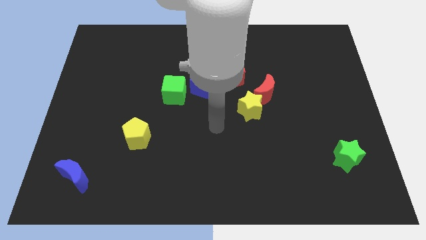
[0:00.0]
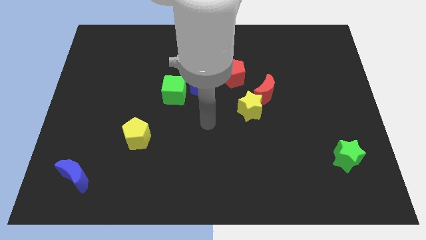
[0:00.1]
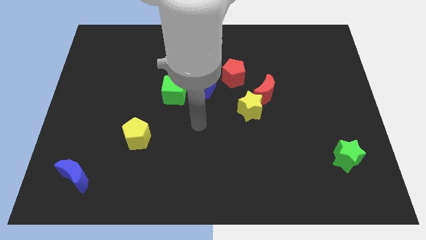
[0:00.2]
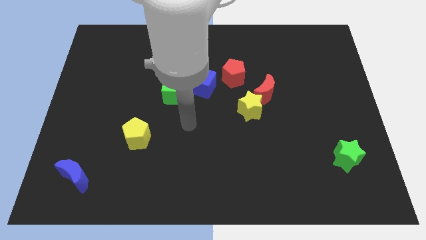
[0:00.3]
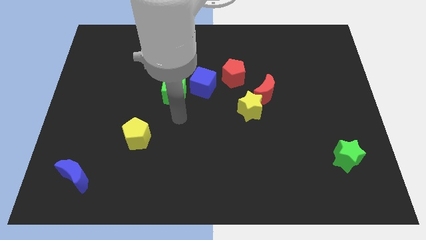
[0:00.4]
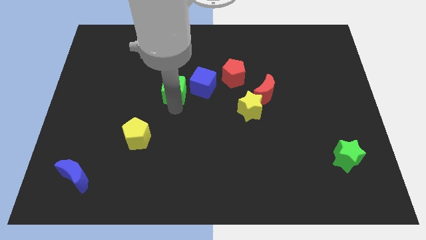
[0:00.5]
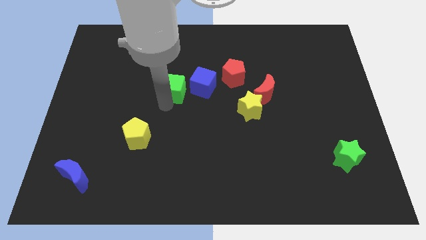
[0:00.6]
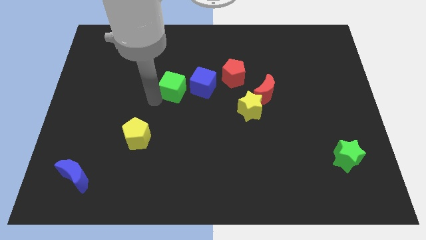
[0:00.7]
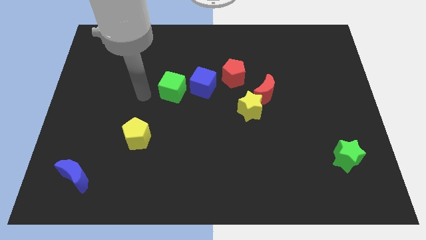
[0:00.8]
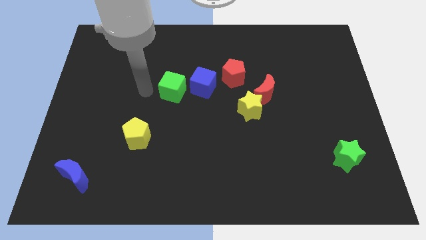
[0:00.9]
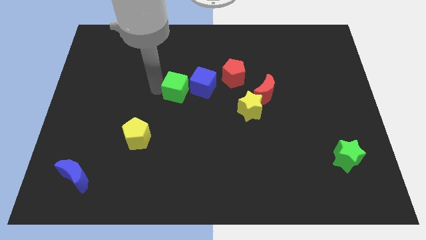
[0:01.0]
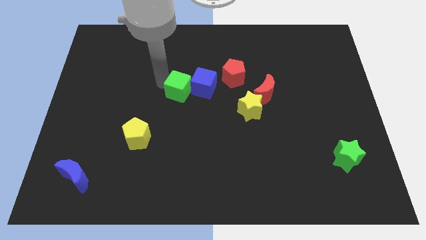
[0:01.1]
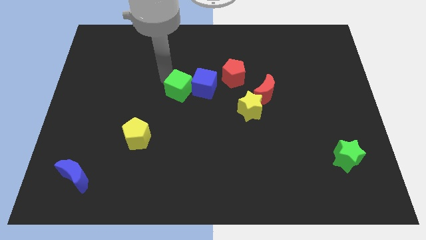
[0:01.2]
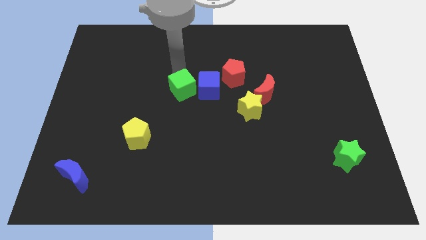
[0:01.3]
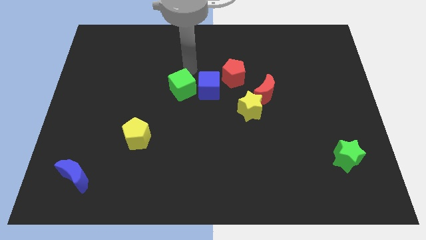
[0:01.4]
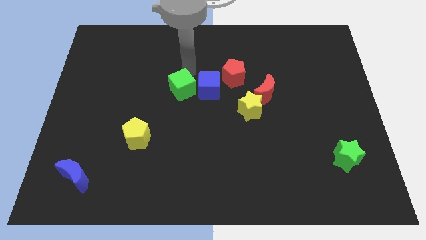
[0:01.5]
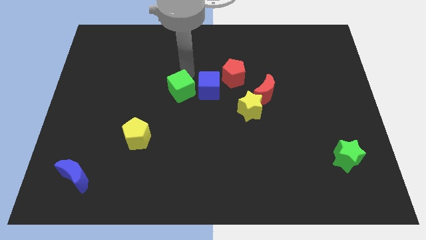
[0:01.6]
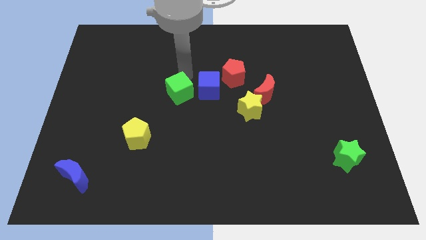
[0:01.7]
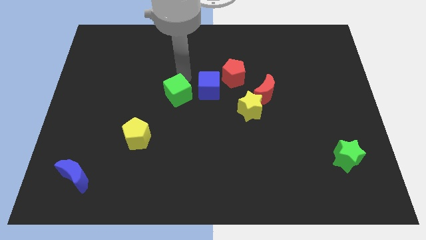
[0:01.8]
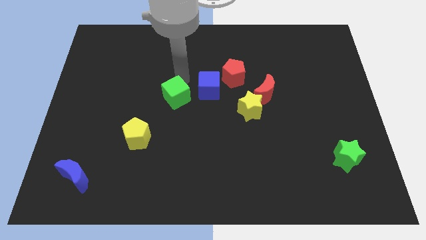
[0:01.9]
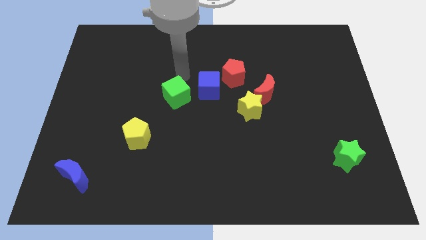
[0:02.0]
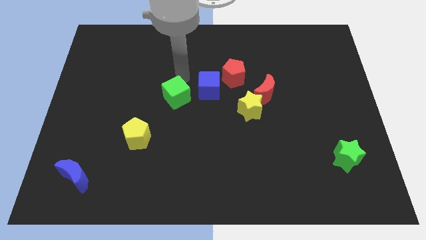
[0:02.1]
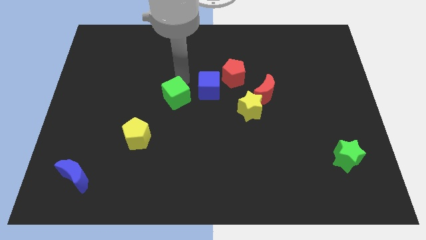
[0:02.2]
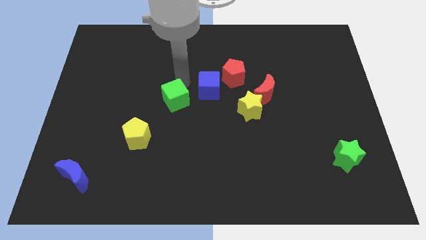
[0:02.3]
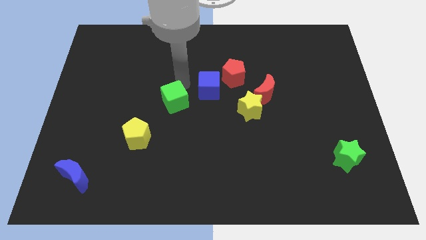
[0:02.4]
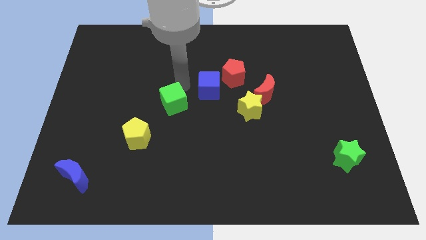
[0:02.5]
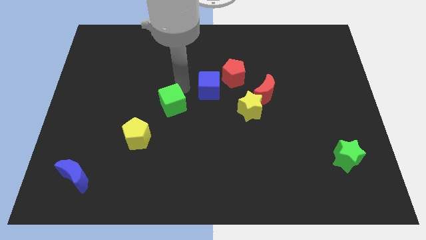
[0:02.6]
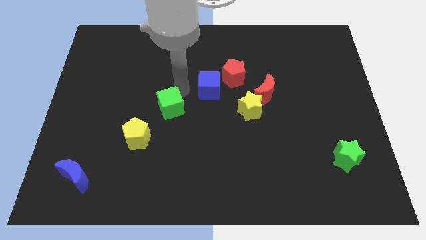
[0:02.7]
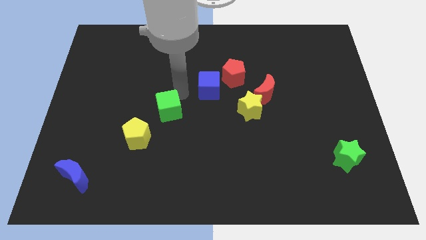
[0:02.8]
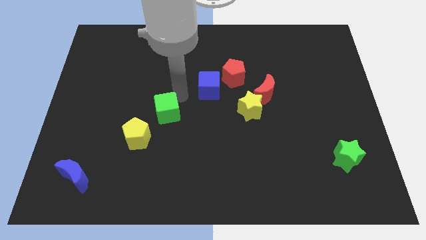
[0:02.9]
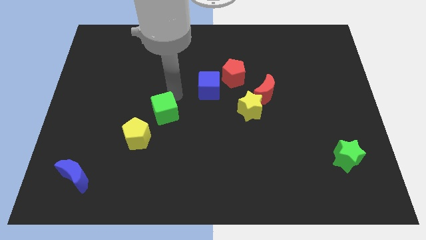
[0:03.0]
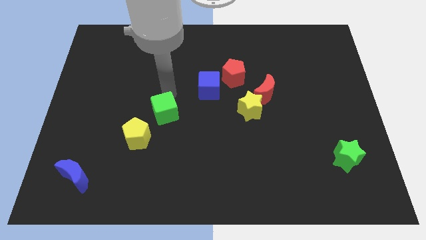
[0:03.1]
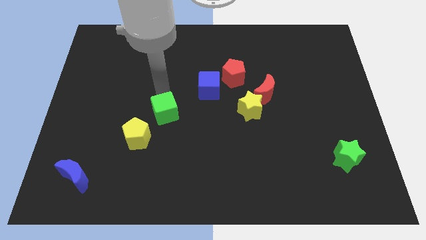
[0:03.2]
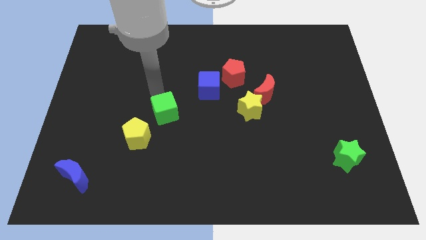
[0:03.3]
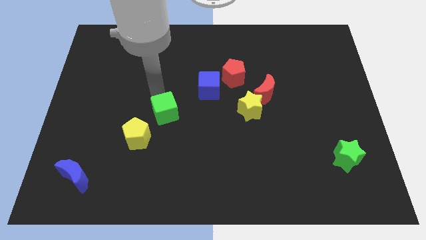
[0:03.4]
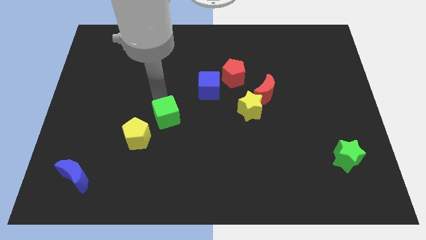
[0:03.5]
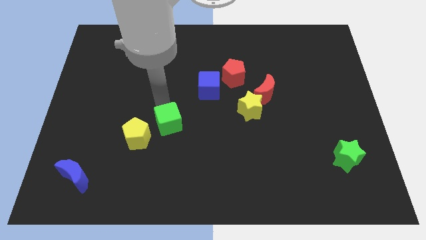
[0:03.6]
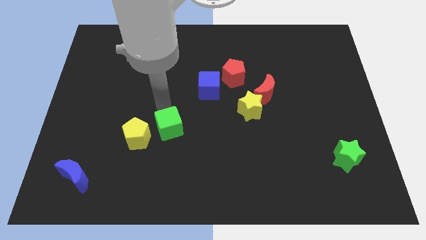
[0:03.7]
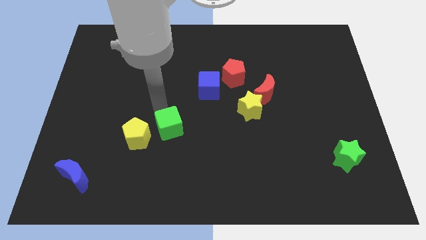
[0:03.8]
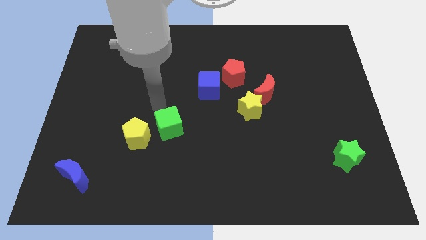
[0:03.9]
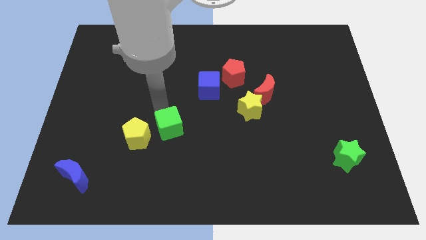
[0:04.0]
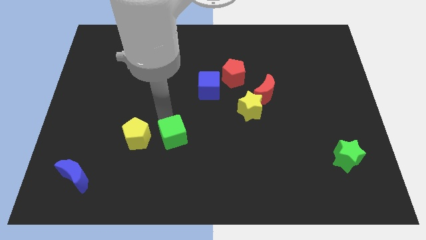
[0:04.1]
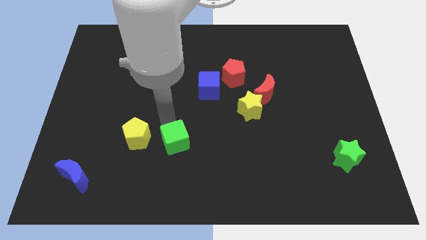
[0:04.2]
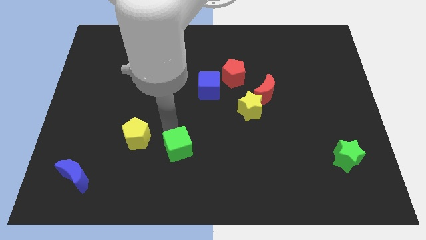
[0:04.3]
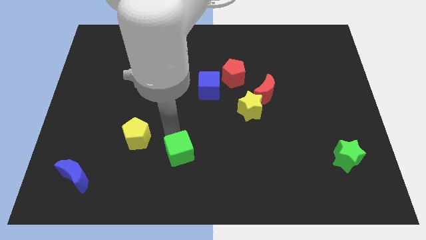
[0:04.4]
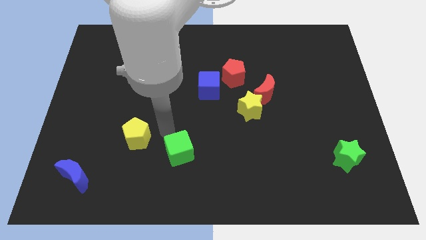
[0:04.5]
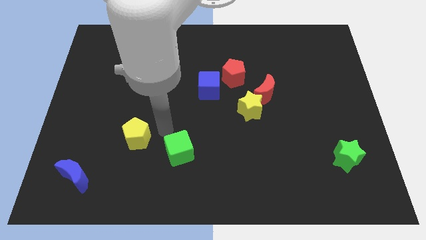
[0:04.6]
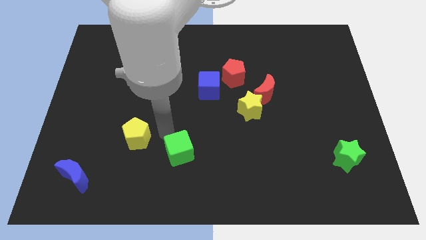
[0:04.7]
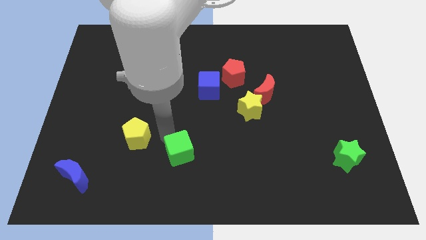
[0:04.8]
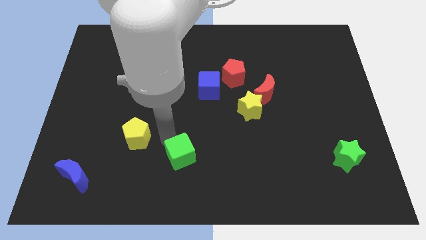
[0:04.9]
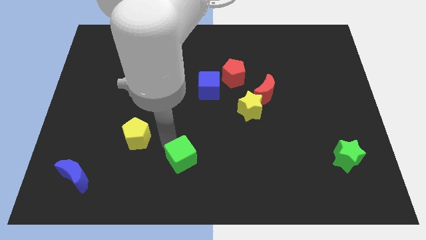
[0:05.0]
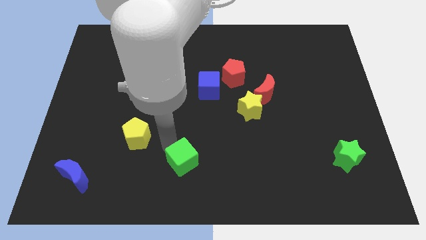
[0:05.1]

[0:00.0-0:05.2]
push the green cube to the bottom

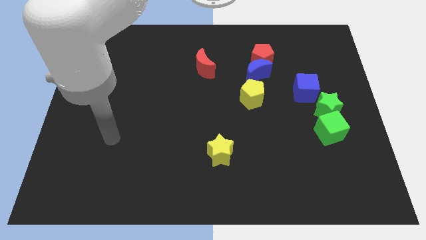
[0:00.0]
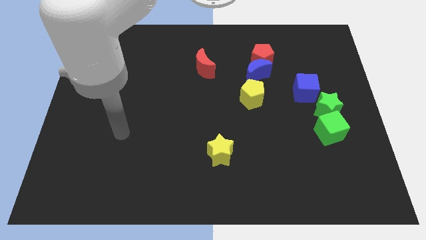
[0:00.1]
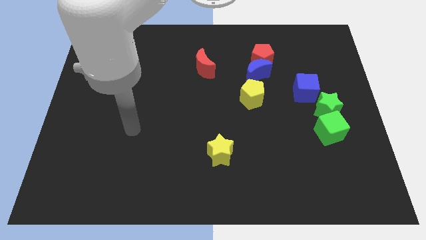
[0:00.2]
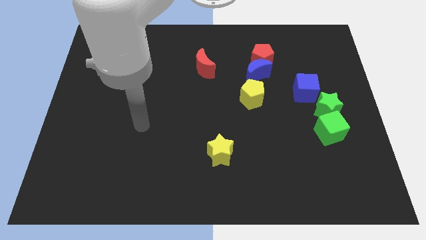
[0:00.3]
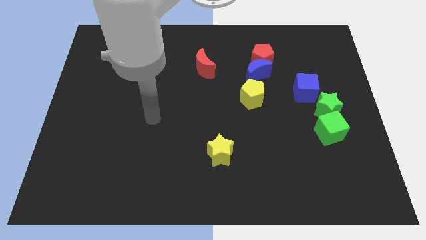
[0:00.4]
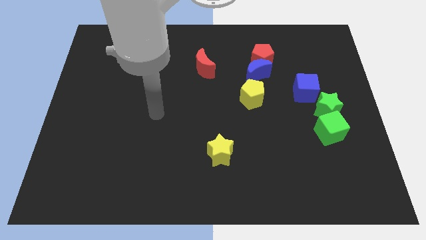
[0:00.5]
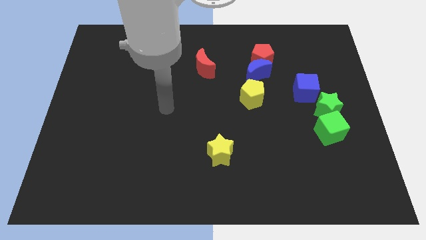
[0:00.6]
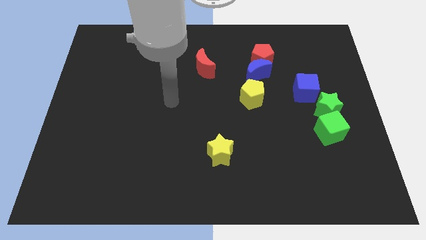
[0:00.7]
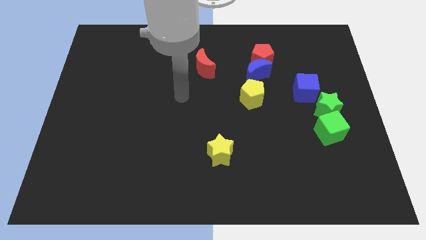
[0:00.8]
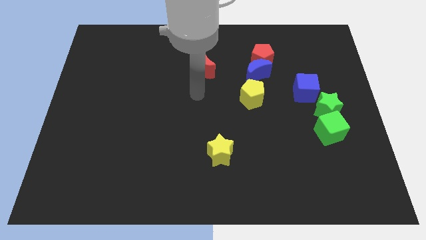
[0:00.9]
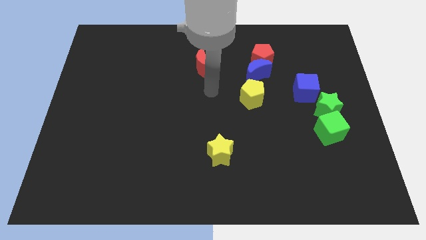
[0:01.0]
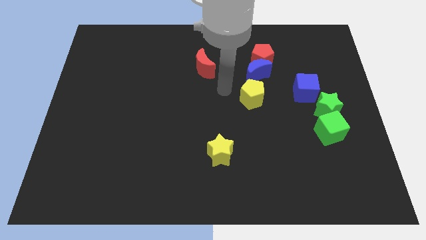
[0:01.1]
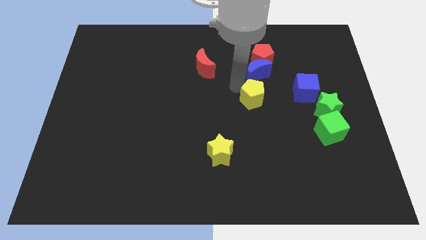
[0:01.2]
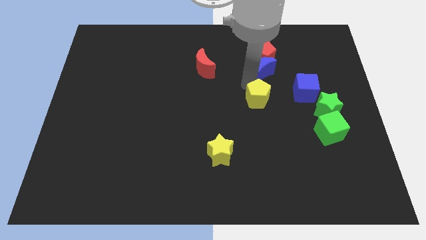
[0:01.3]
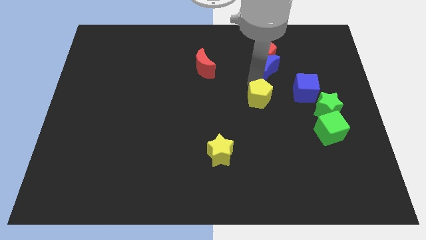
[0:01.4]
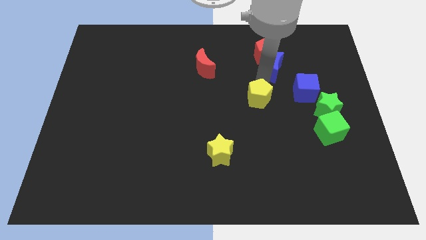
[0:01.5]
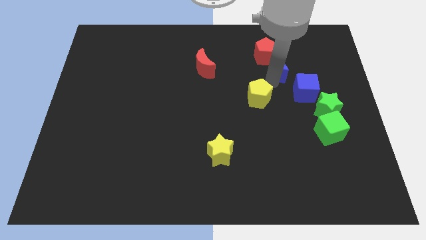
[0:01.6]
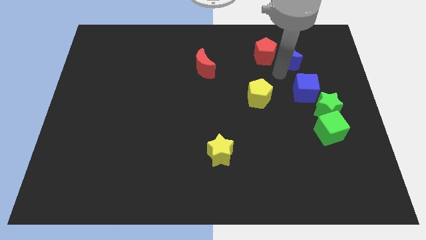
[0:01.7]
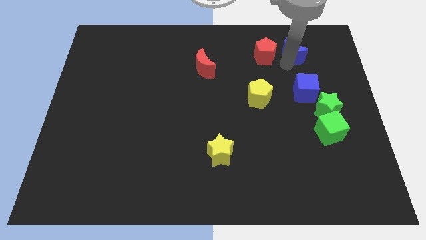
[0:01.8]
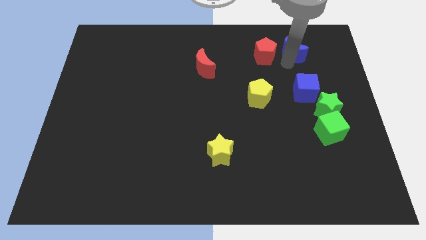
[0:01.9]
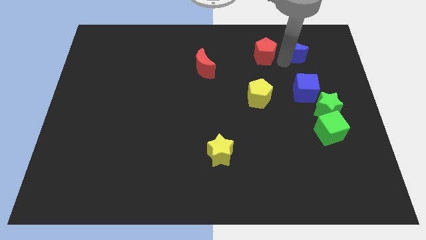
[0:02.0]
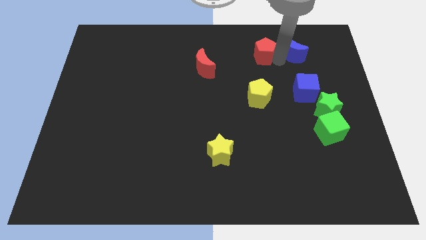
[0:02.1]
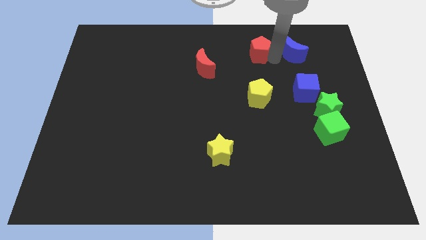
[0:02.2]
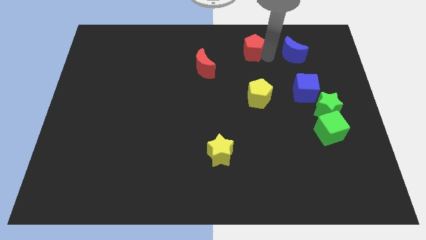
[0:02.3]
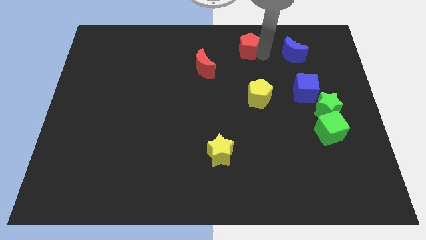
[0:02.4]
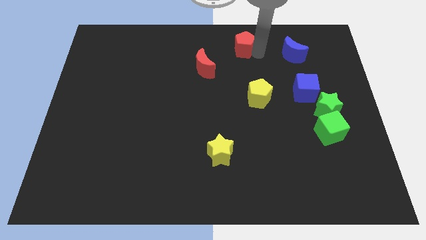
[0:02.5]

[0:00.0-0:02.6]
put the red pentagon to the towards your base
